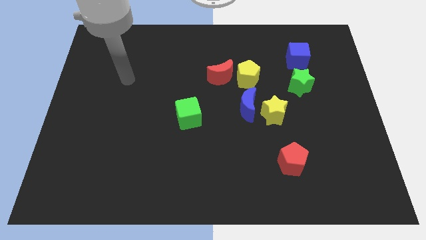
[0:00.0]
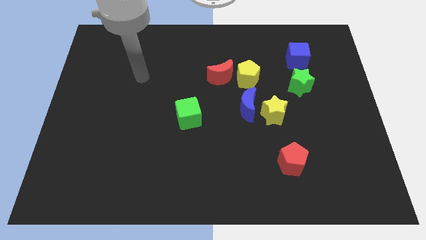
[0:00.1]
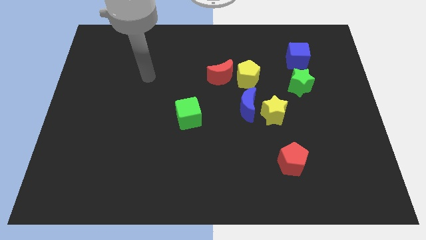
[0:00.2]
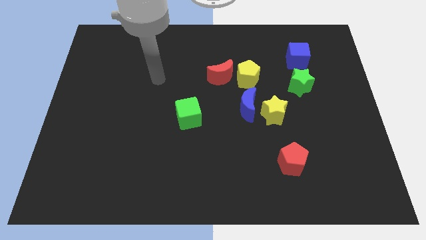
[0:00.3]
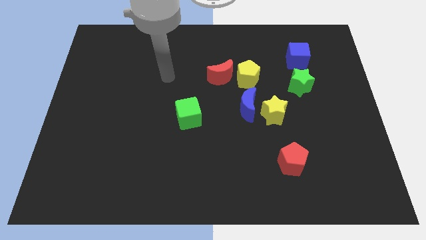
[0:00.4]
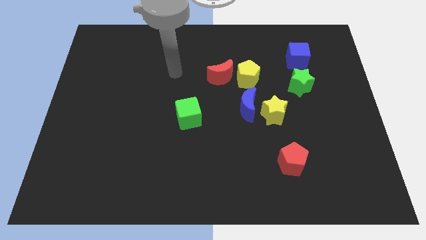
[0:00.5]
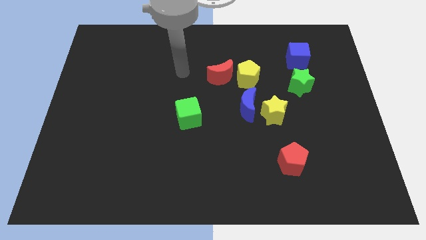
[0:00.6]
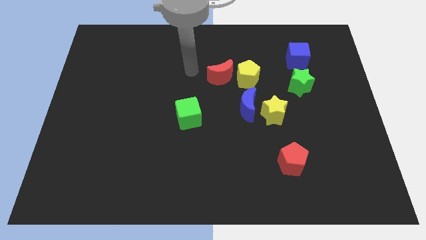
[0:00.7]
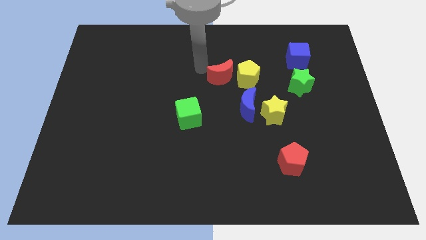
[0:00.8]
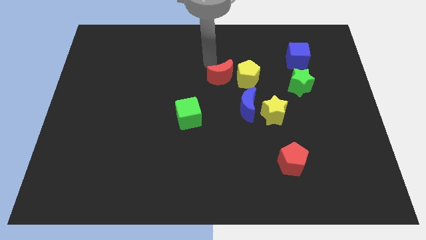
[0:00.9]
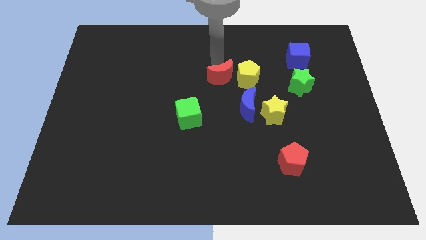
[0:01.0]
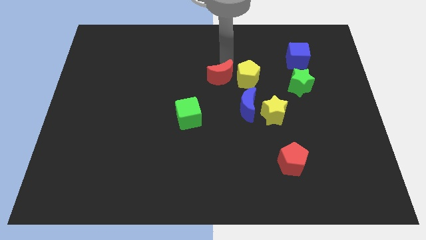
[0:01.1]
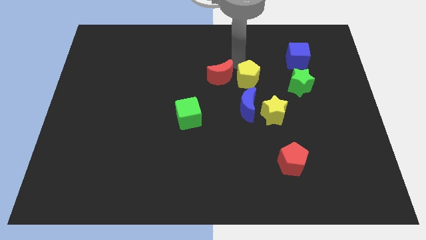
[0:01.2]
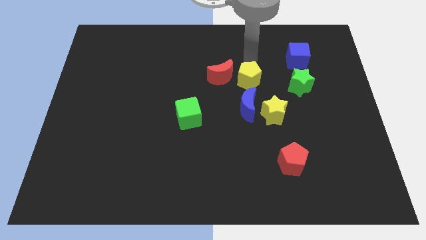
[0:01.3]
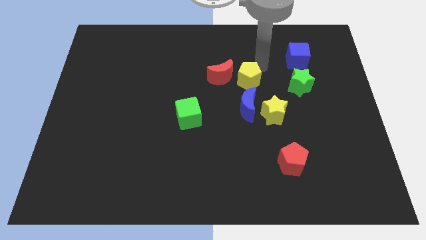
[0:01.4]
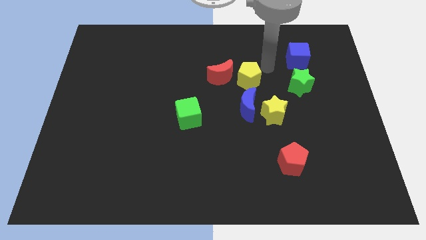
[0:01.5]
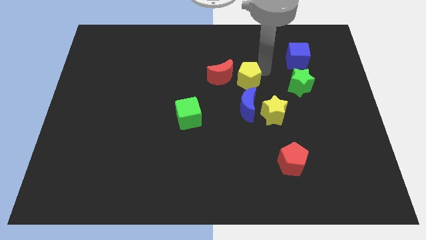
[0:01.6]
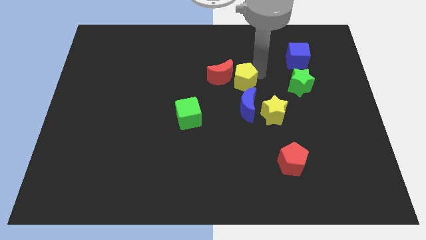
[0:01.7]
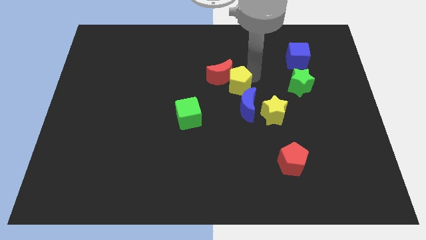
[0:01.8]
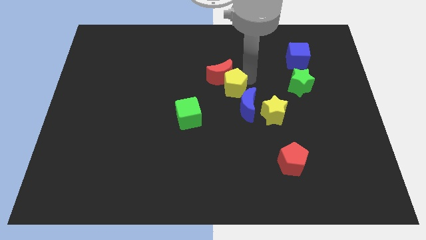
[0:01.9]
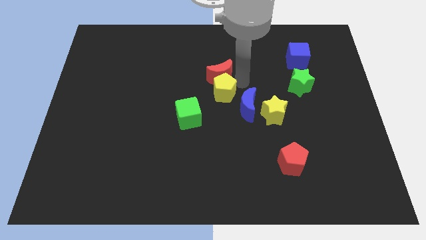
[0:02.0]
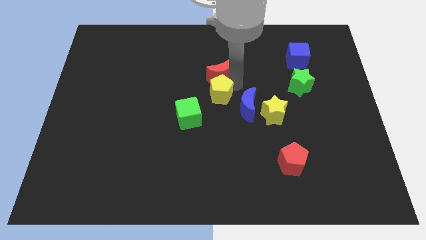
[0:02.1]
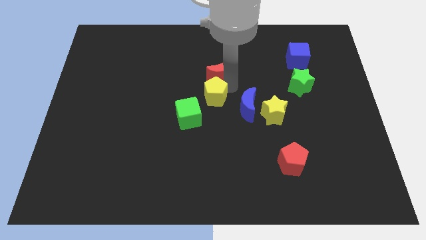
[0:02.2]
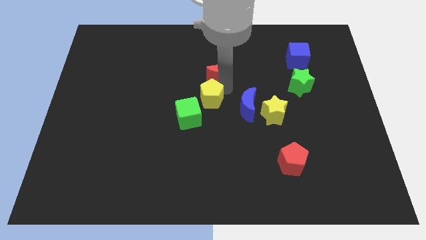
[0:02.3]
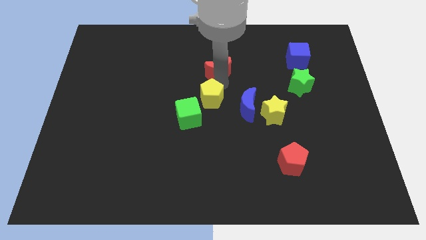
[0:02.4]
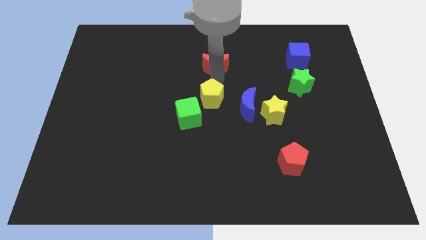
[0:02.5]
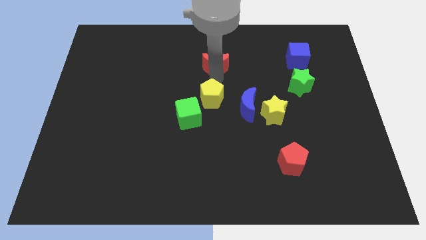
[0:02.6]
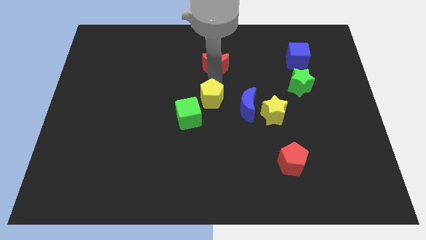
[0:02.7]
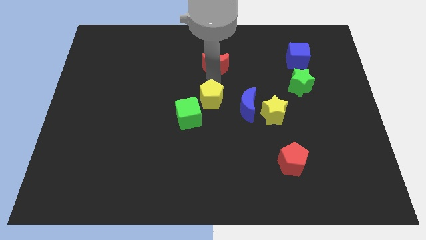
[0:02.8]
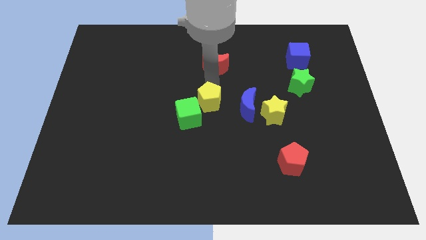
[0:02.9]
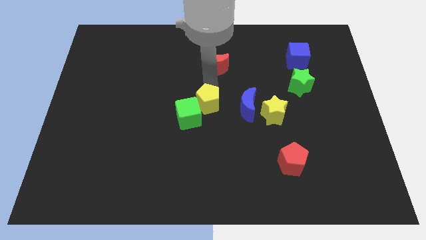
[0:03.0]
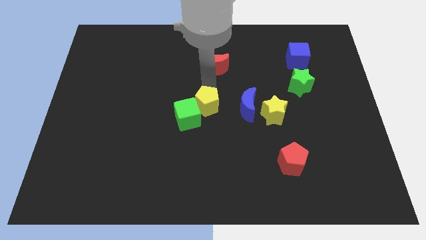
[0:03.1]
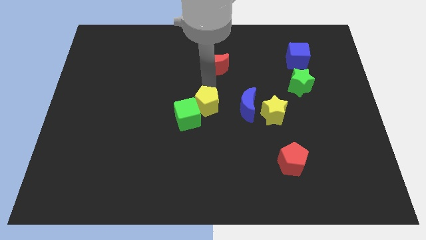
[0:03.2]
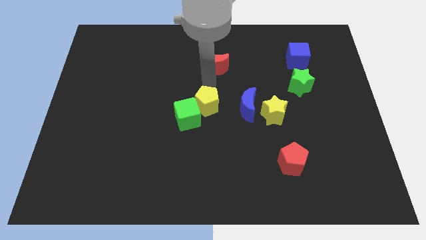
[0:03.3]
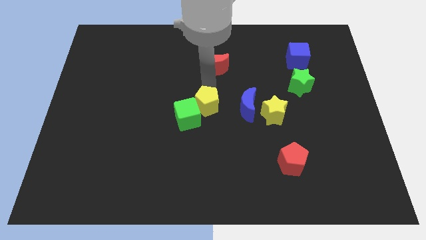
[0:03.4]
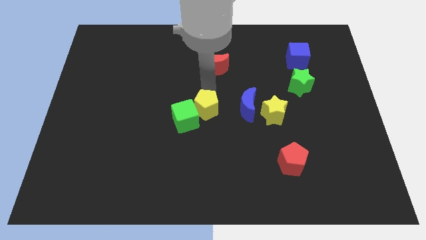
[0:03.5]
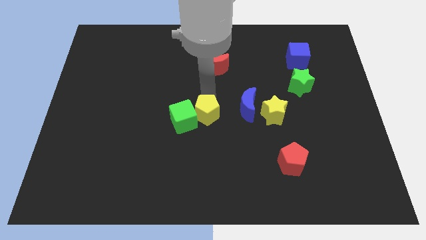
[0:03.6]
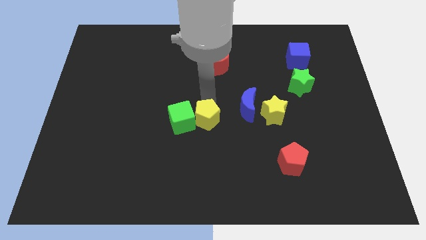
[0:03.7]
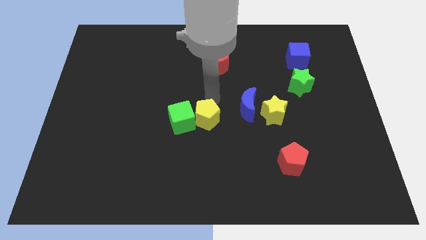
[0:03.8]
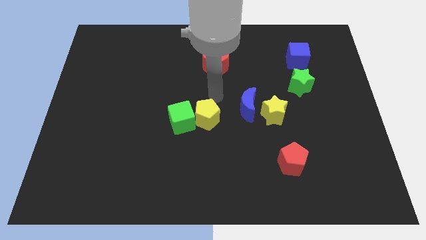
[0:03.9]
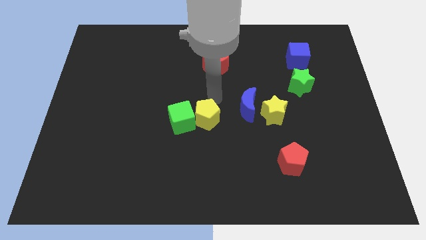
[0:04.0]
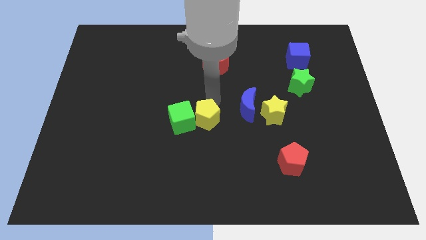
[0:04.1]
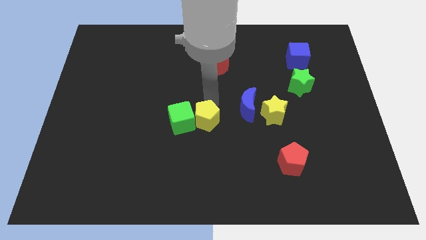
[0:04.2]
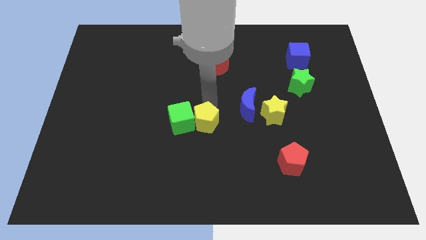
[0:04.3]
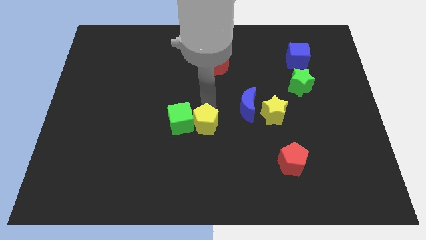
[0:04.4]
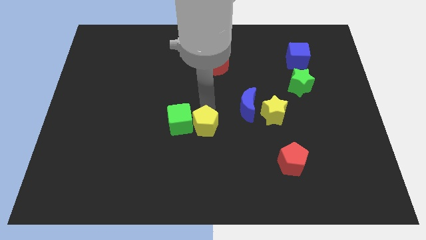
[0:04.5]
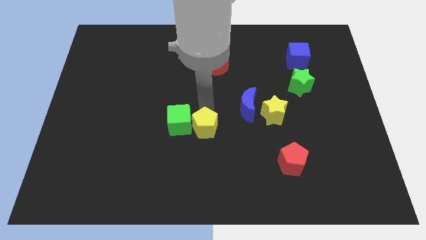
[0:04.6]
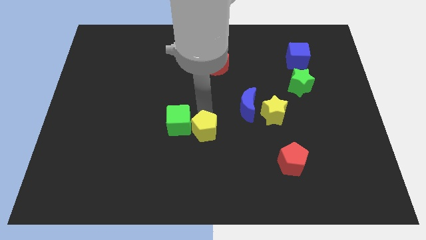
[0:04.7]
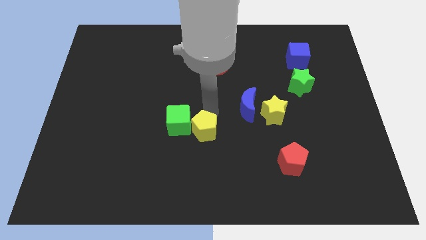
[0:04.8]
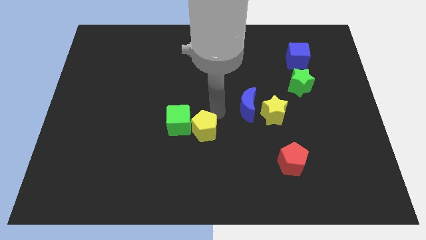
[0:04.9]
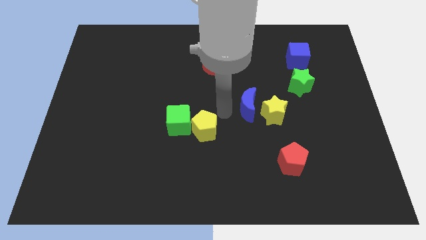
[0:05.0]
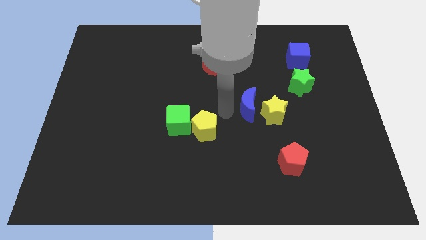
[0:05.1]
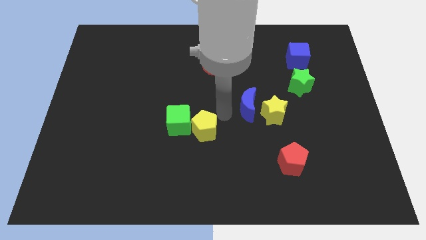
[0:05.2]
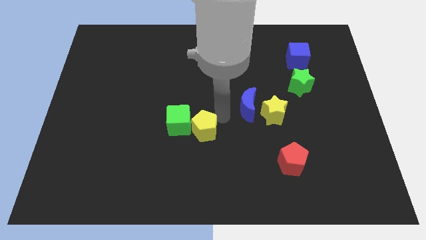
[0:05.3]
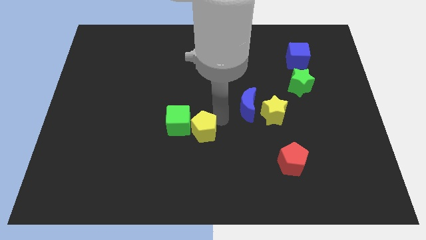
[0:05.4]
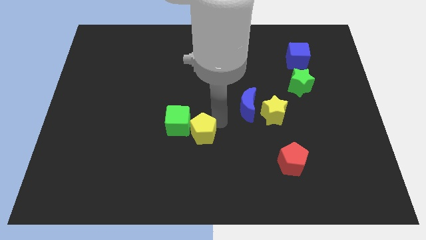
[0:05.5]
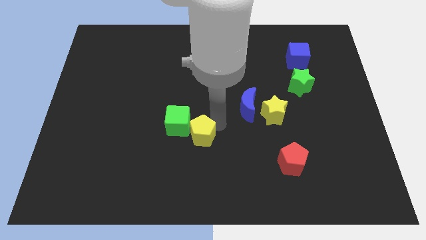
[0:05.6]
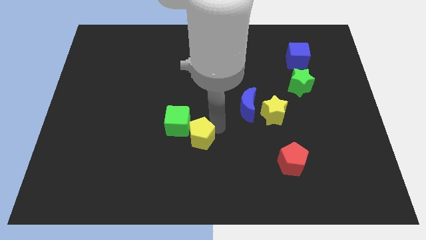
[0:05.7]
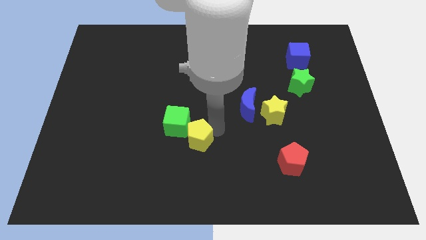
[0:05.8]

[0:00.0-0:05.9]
push the yellow pentagon down and left

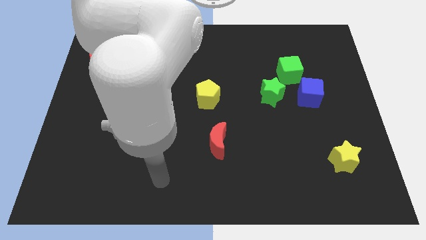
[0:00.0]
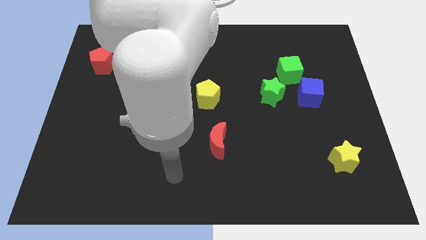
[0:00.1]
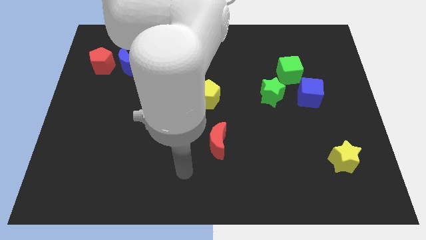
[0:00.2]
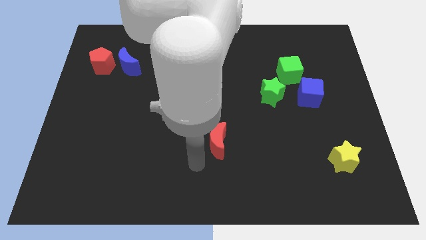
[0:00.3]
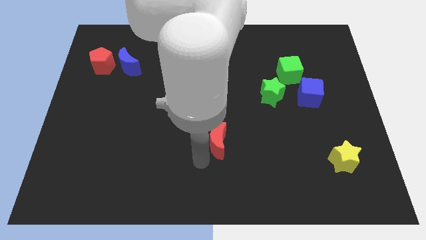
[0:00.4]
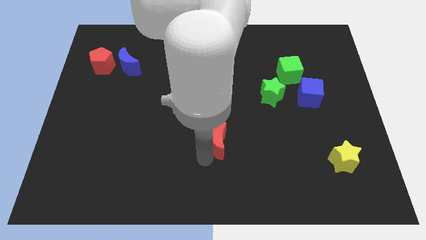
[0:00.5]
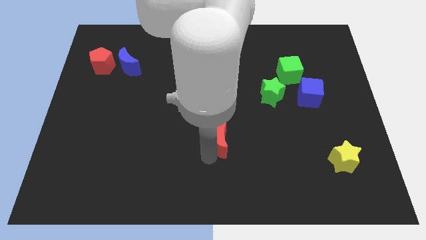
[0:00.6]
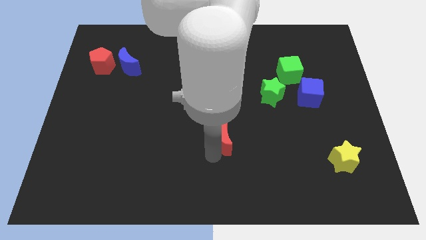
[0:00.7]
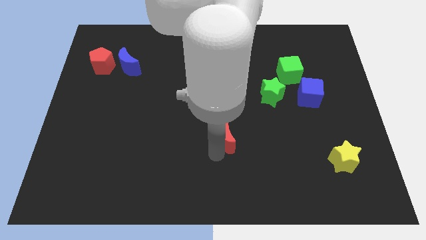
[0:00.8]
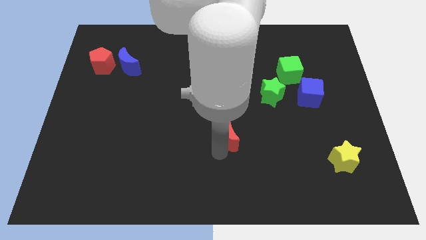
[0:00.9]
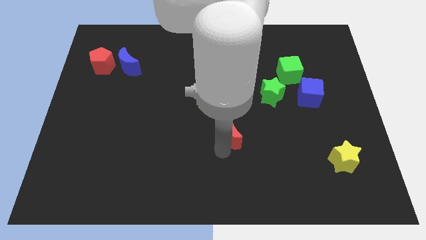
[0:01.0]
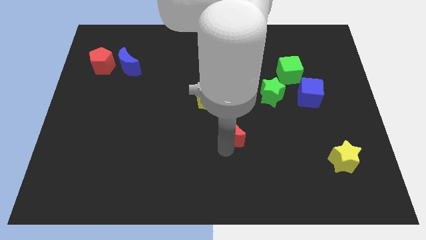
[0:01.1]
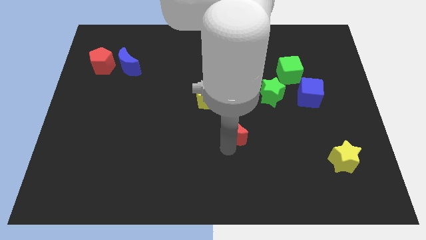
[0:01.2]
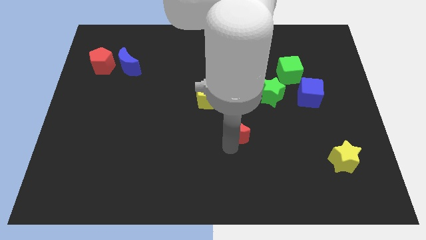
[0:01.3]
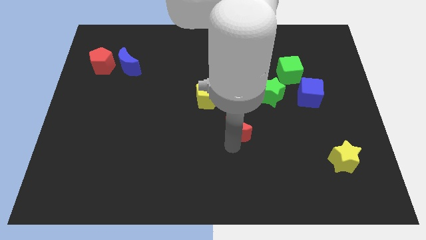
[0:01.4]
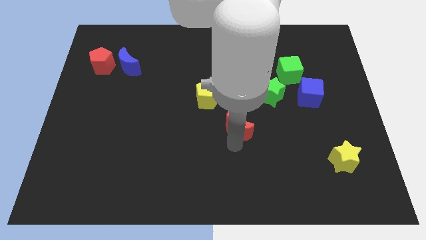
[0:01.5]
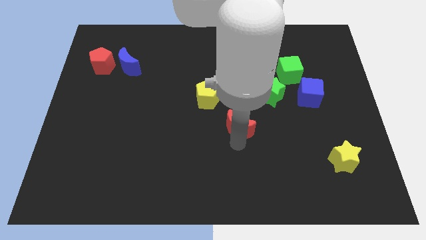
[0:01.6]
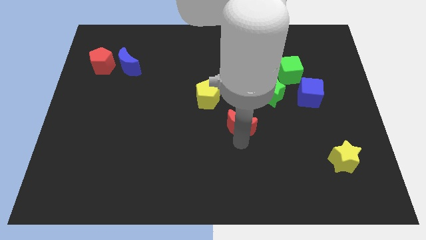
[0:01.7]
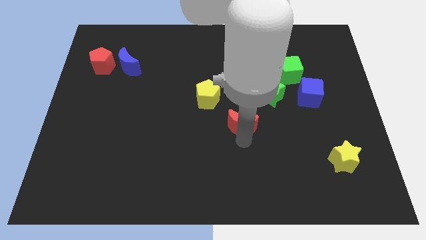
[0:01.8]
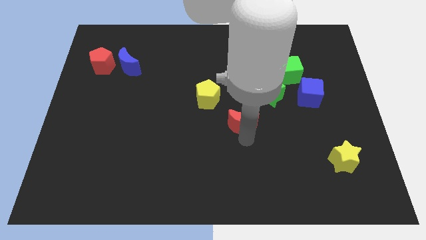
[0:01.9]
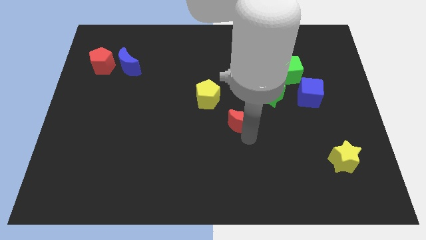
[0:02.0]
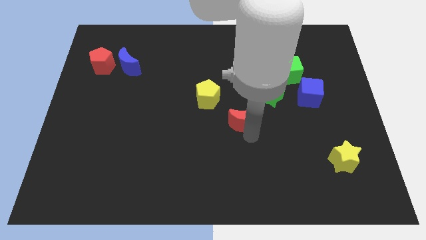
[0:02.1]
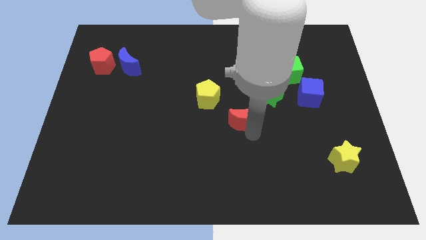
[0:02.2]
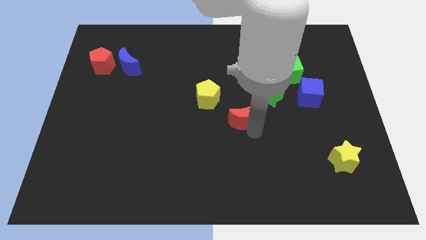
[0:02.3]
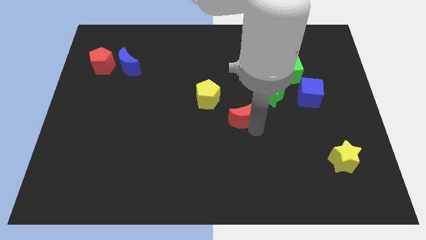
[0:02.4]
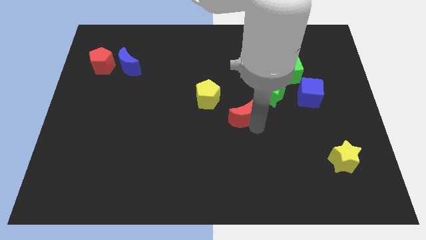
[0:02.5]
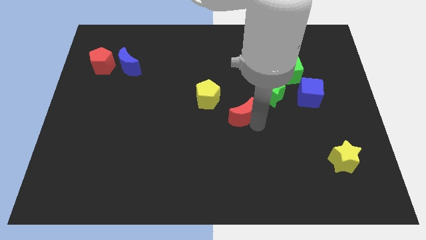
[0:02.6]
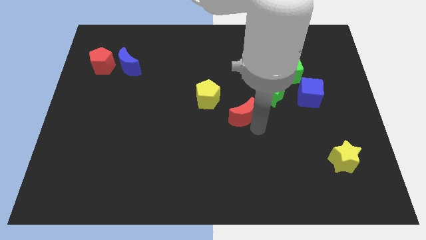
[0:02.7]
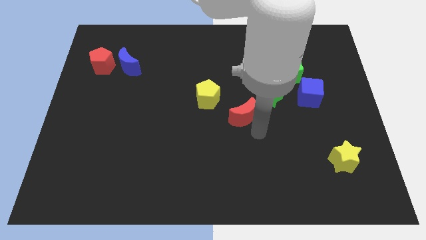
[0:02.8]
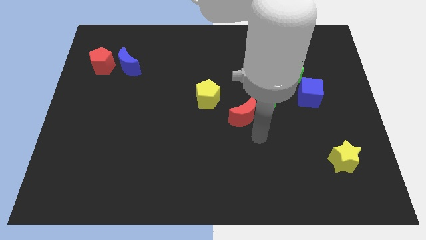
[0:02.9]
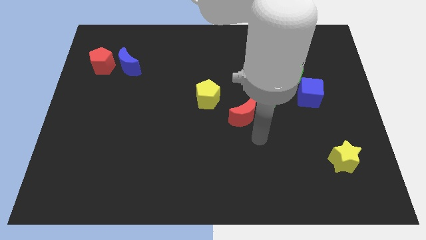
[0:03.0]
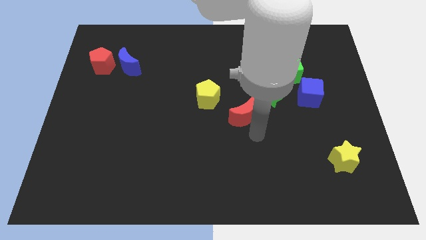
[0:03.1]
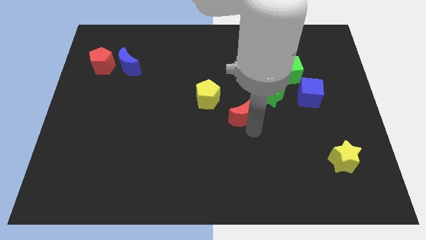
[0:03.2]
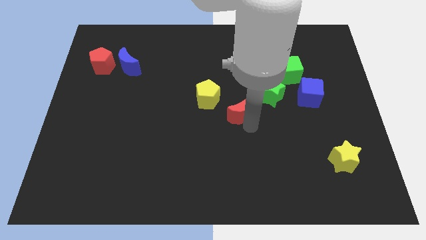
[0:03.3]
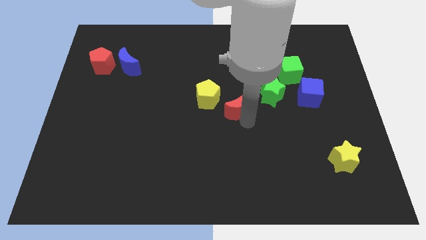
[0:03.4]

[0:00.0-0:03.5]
slightly slide the red moon upwards
